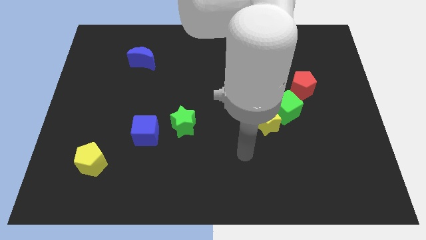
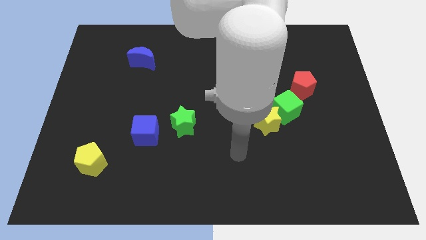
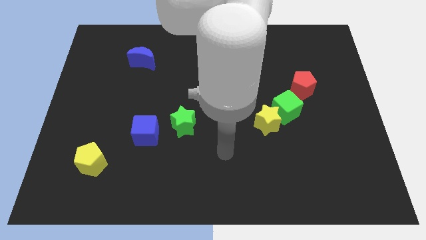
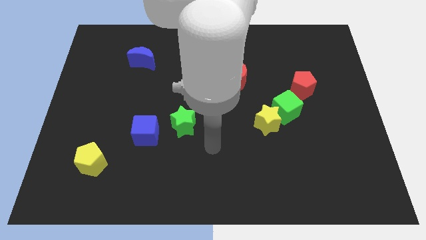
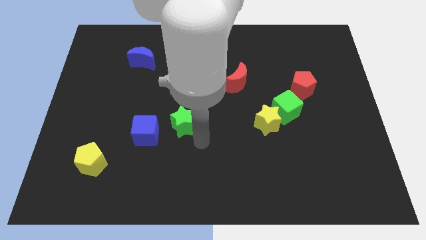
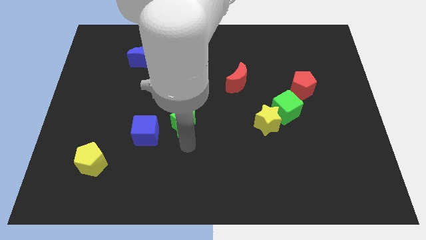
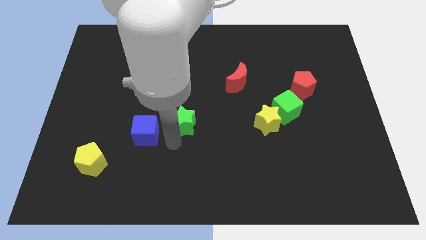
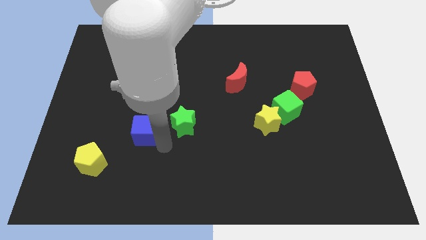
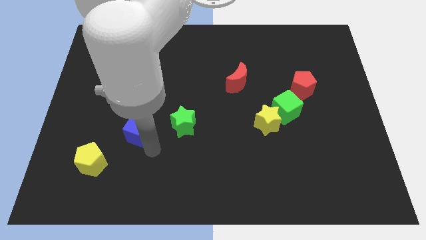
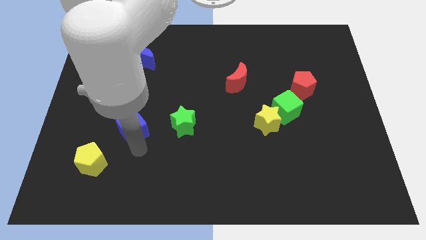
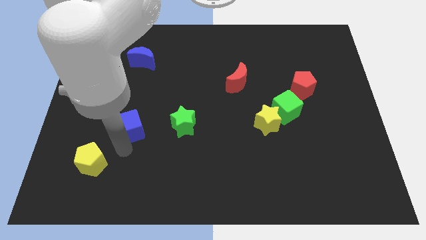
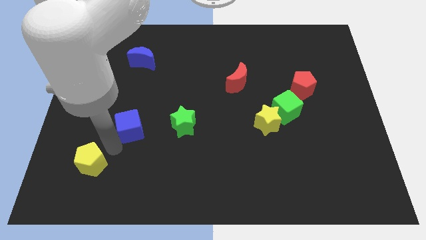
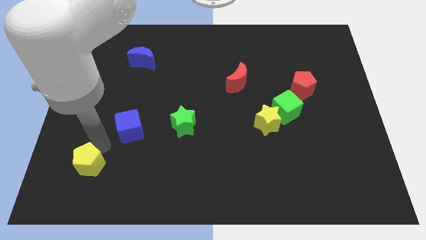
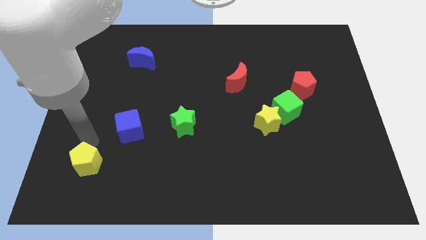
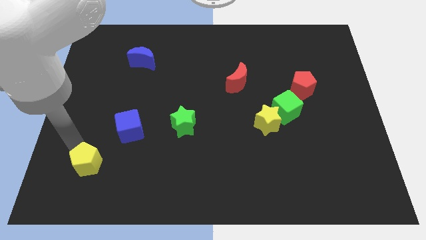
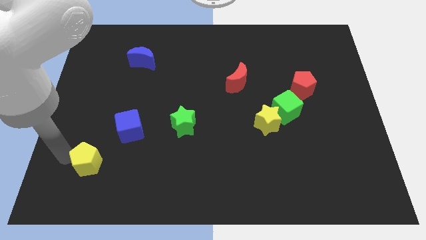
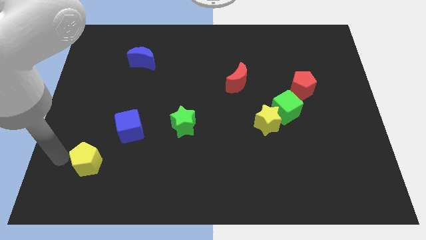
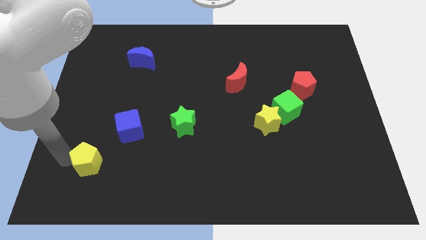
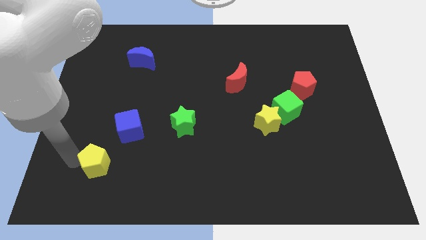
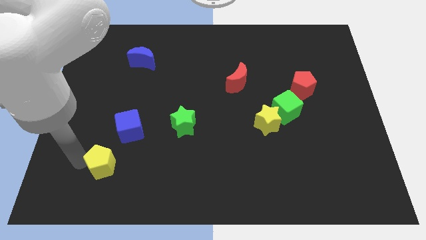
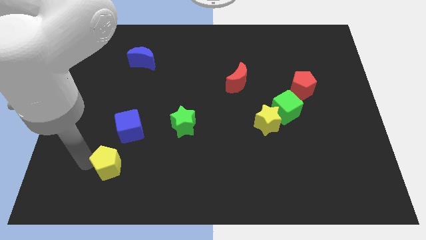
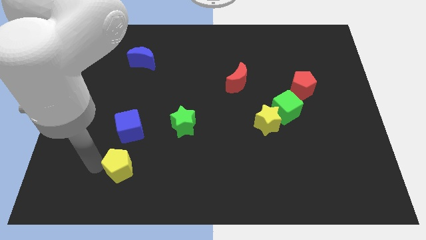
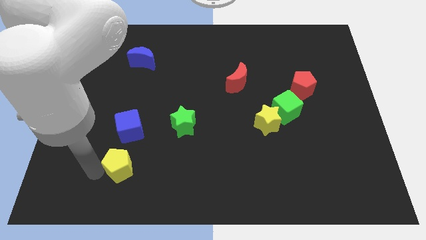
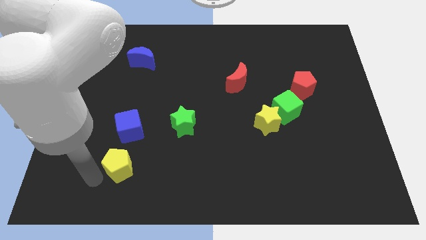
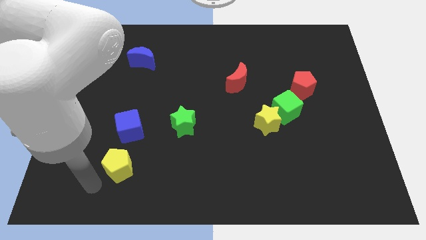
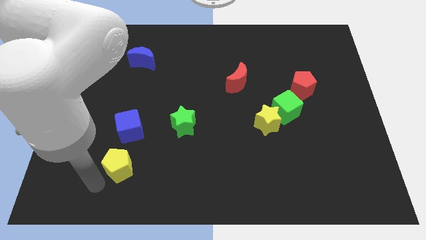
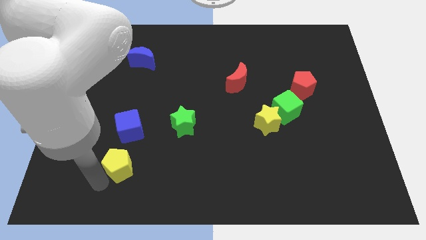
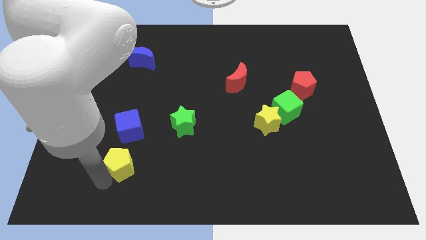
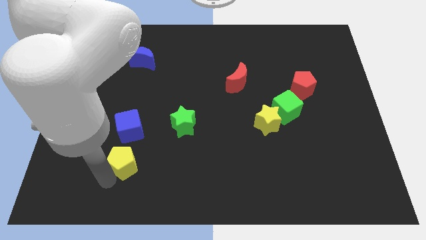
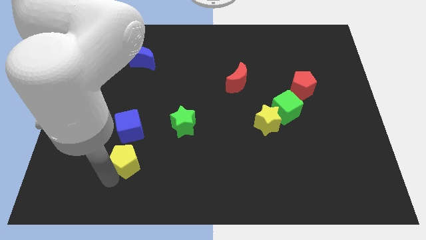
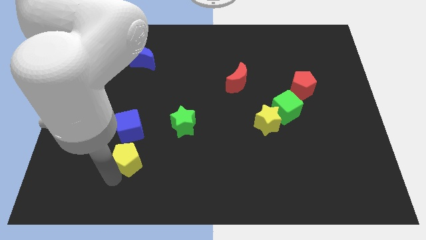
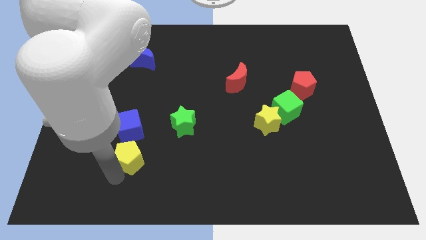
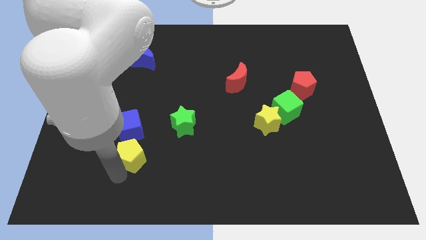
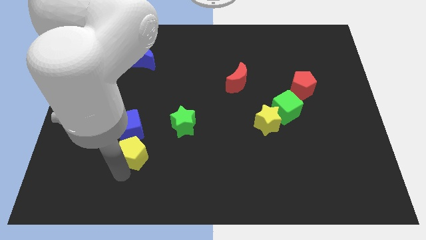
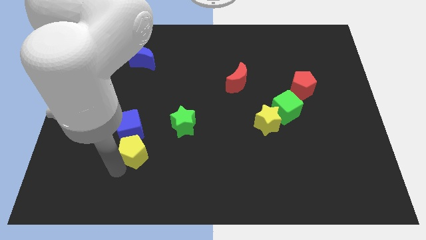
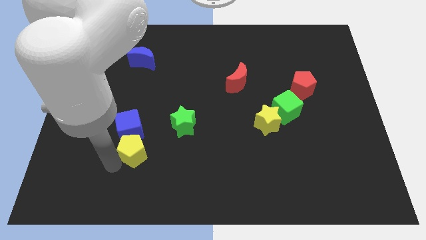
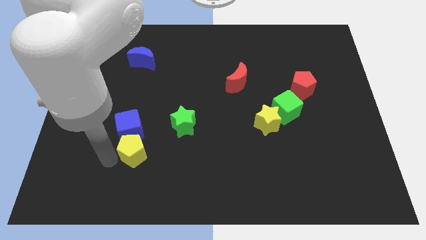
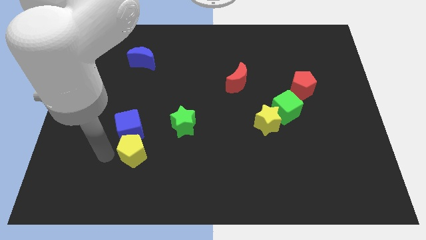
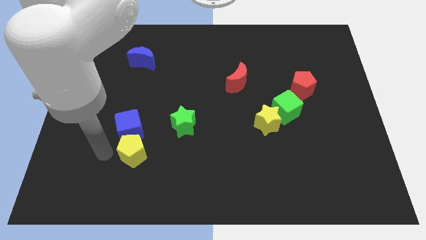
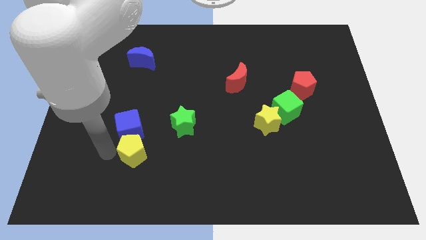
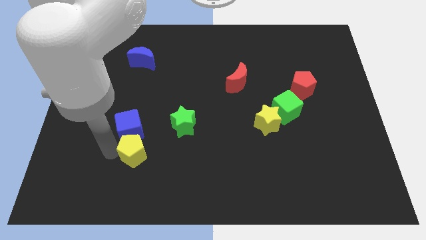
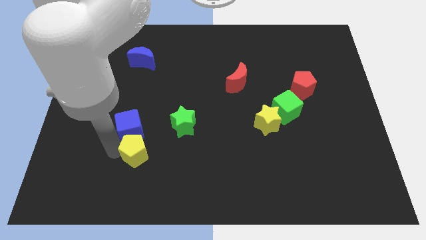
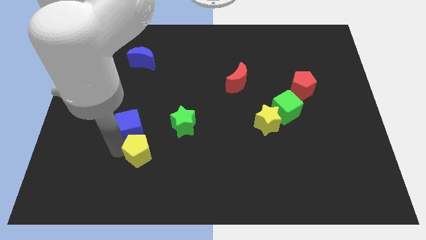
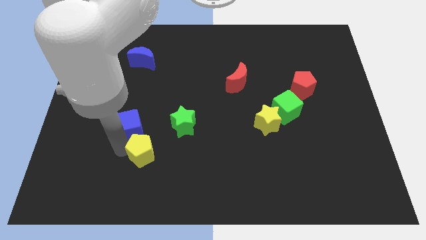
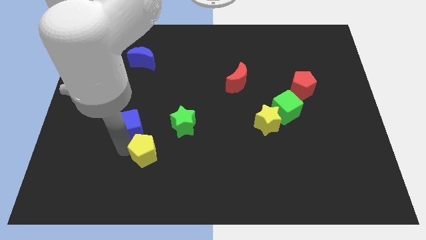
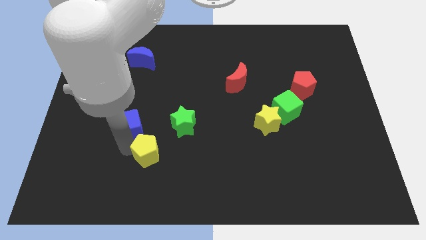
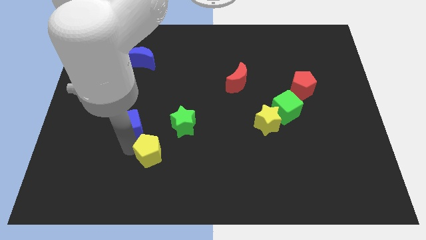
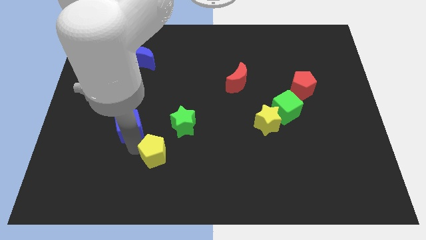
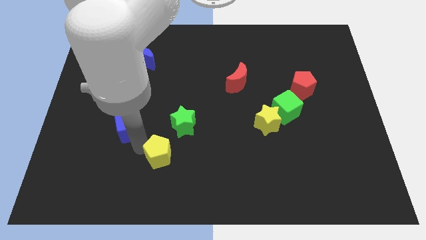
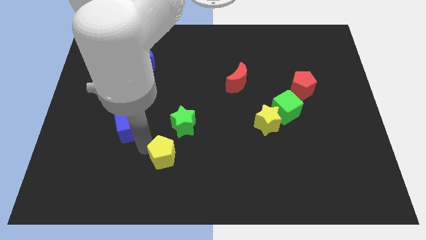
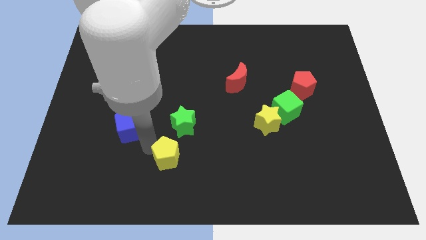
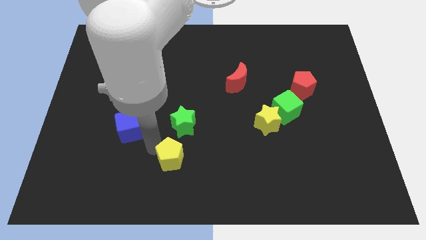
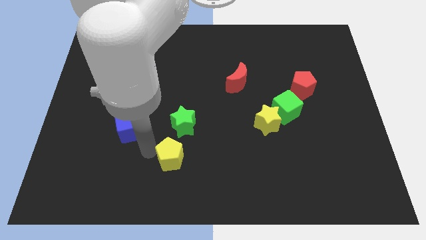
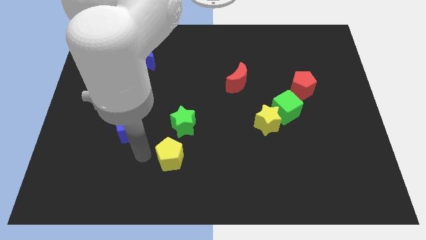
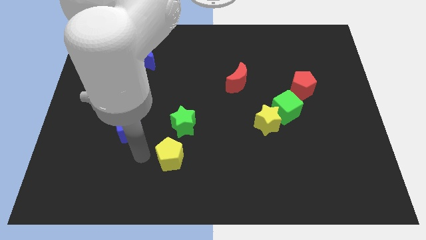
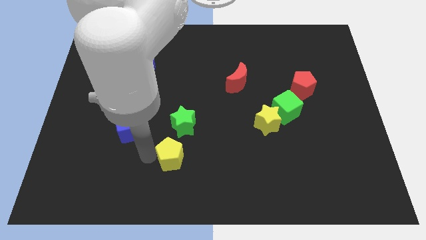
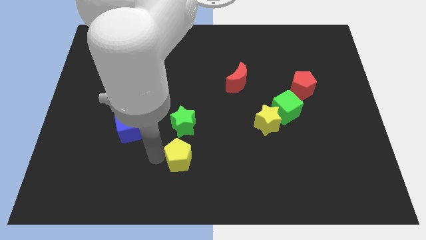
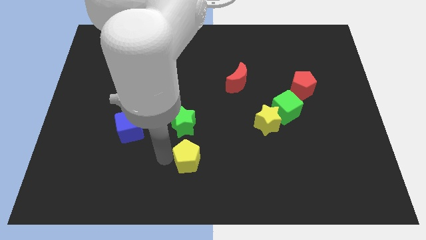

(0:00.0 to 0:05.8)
slide the yellow pentagon right

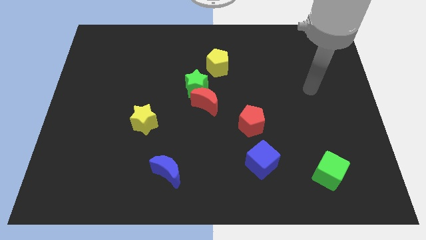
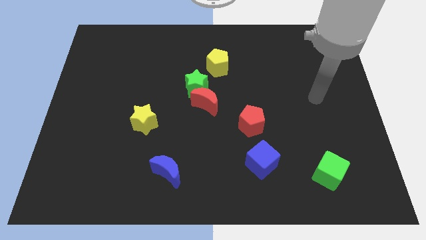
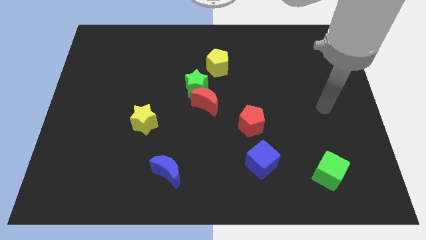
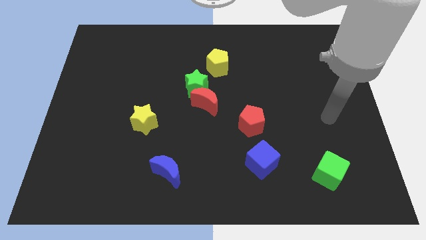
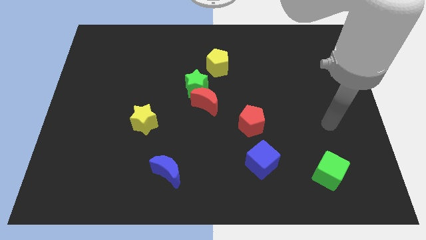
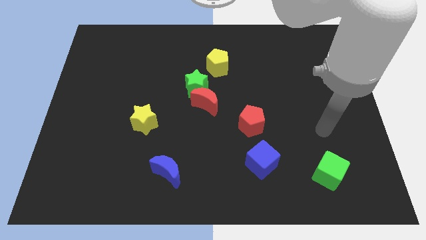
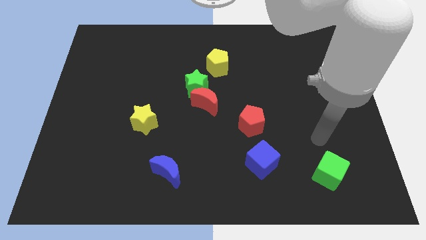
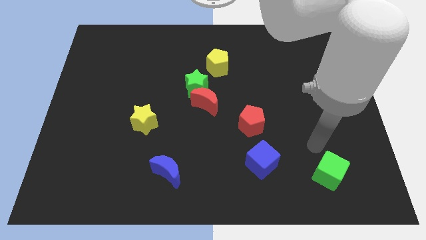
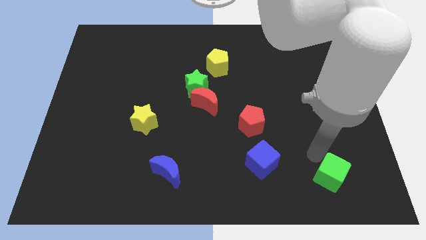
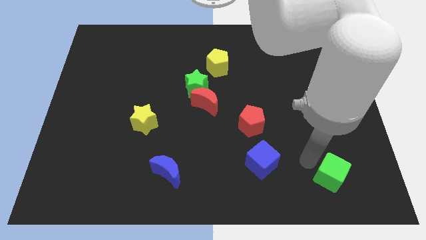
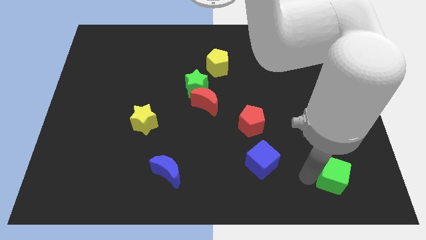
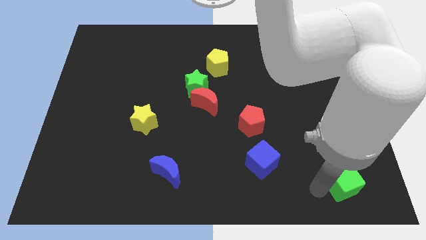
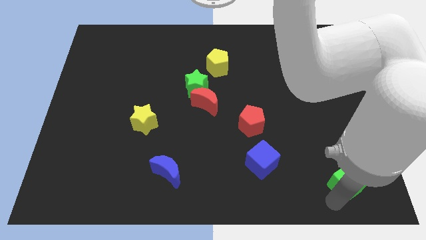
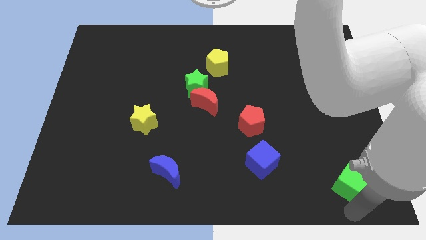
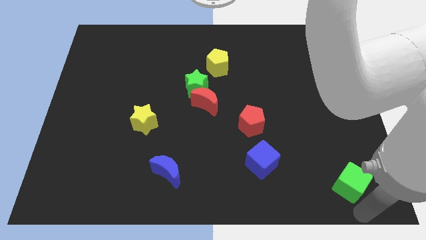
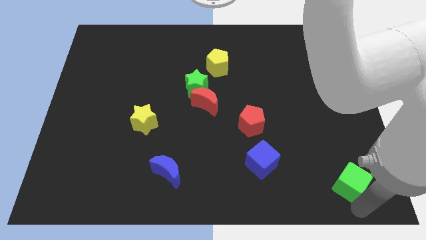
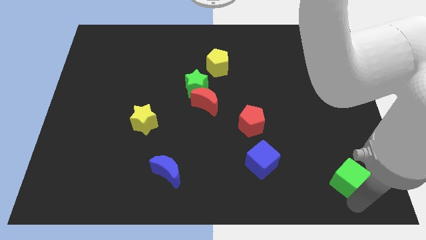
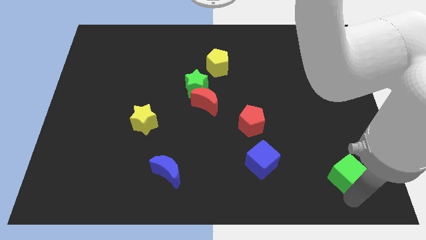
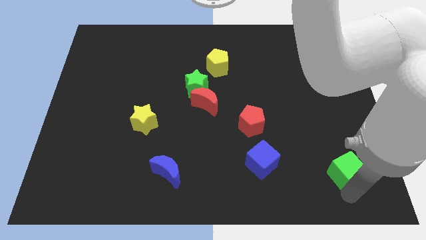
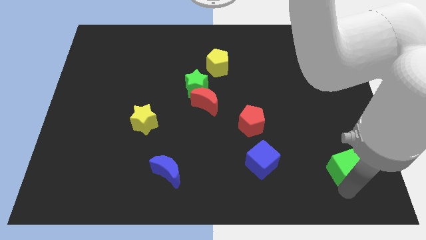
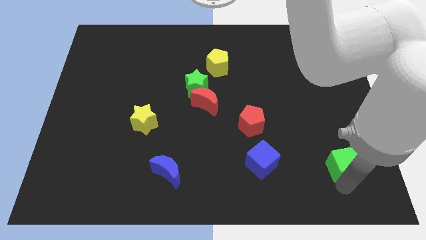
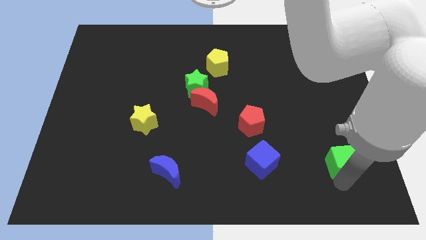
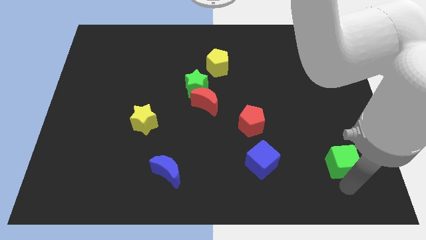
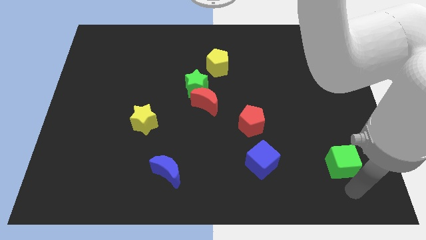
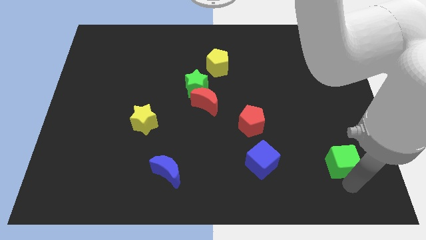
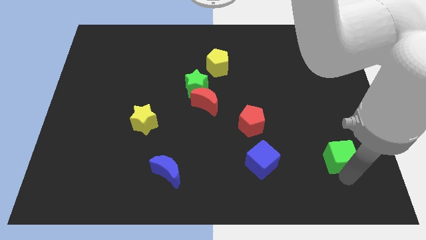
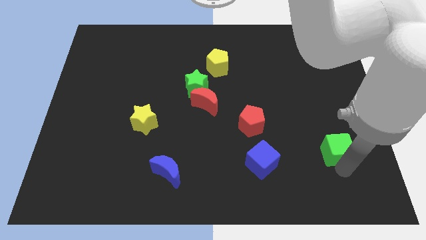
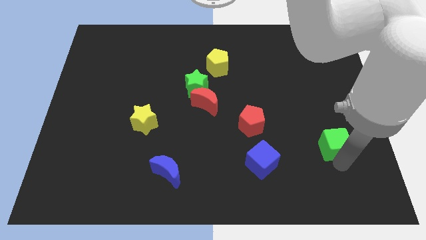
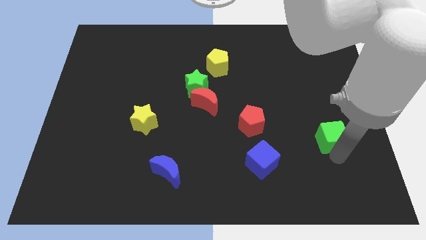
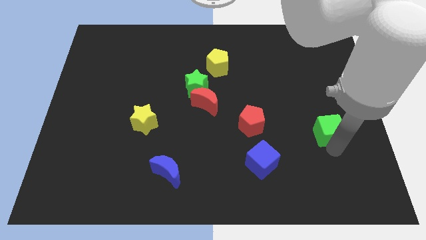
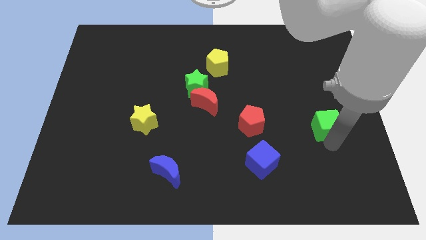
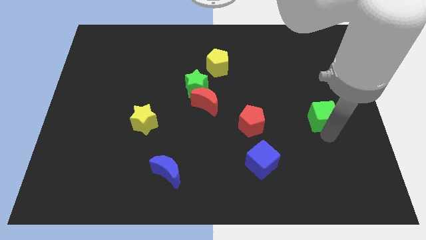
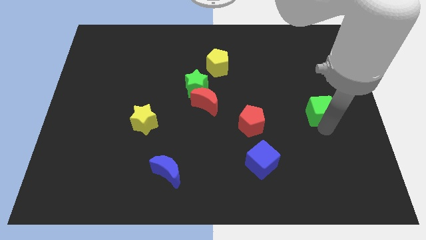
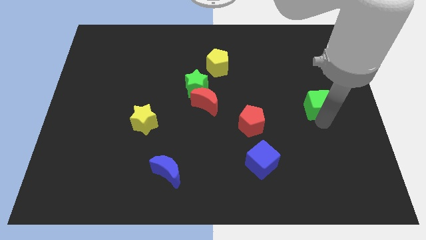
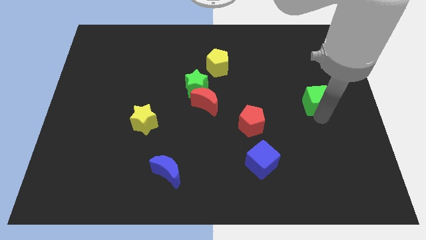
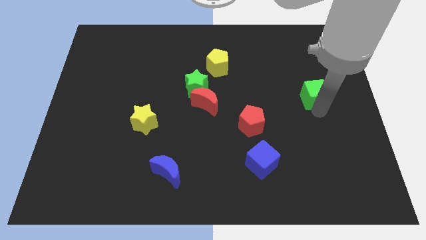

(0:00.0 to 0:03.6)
push the green cube upwards
